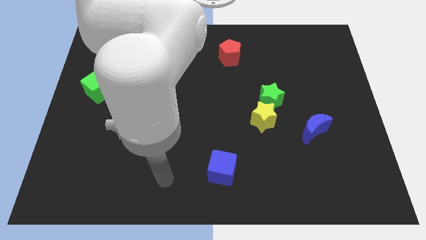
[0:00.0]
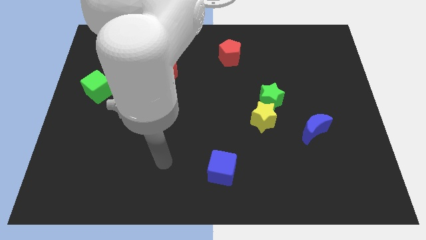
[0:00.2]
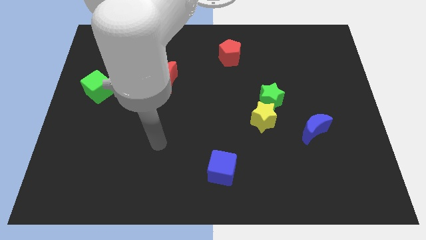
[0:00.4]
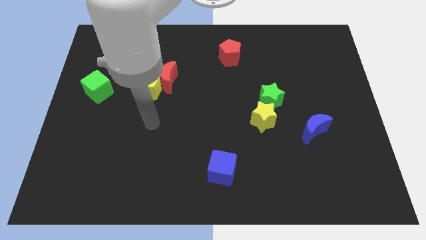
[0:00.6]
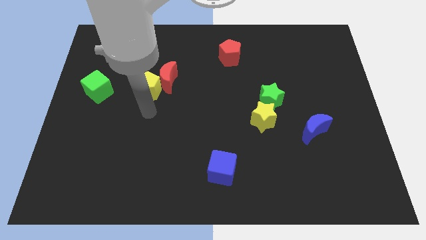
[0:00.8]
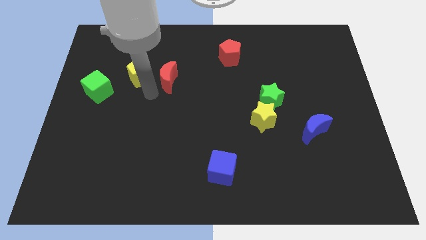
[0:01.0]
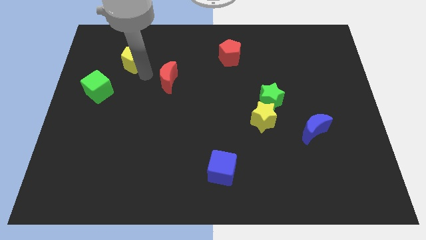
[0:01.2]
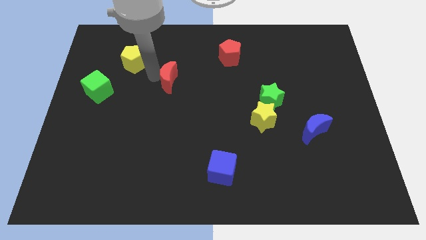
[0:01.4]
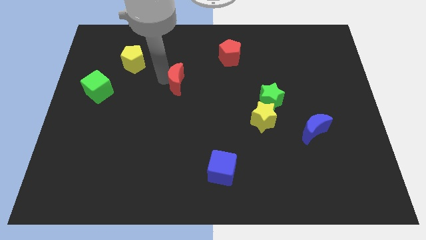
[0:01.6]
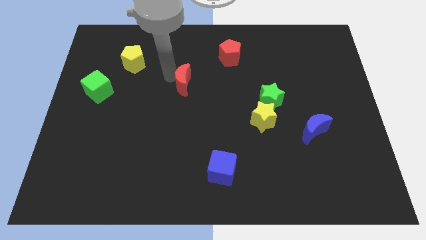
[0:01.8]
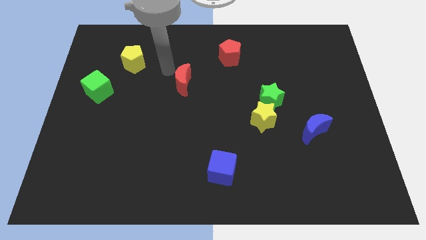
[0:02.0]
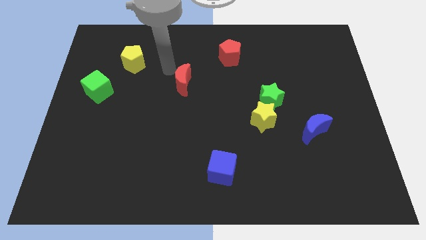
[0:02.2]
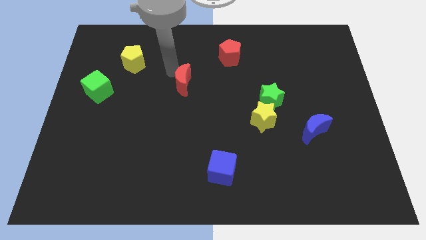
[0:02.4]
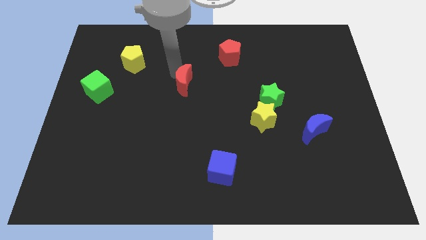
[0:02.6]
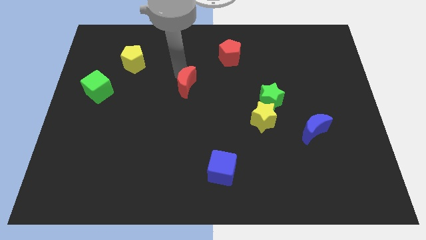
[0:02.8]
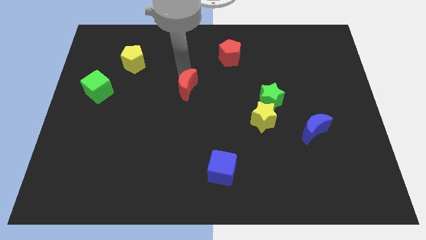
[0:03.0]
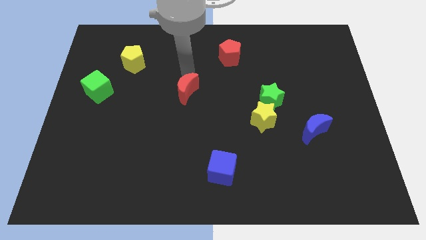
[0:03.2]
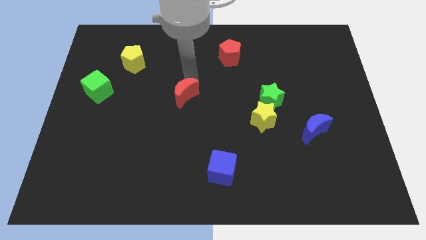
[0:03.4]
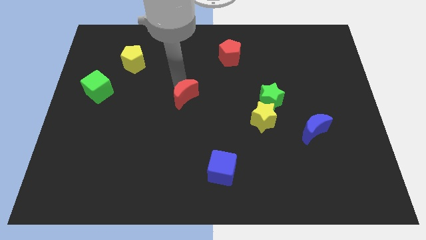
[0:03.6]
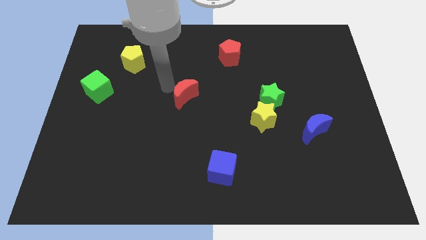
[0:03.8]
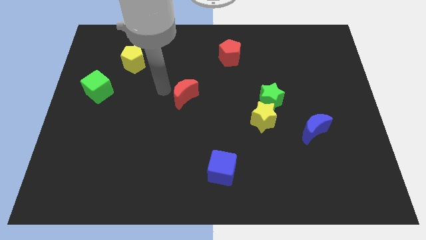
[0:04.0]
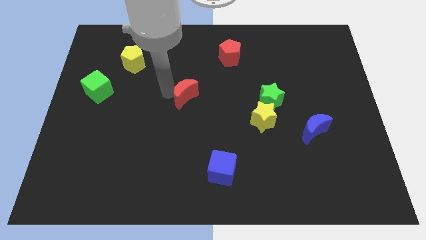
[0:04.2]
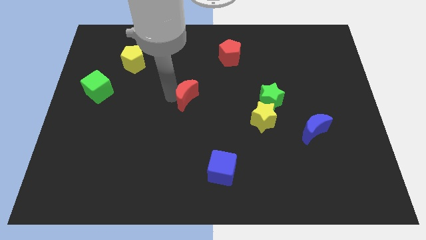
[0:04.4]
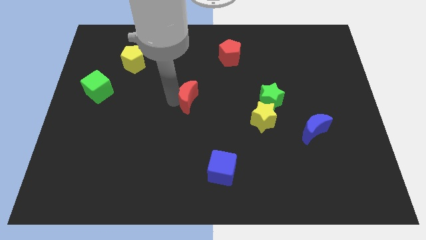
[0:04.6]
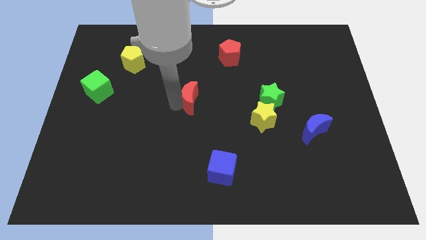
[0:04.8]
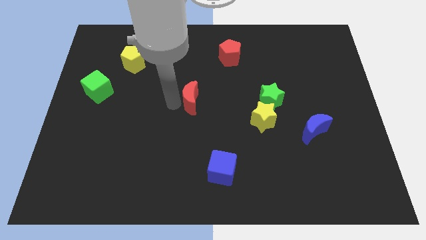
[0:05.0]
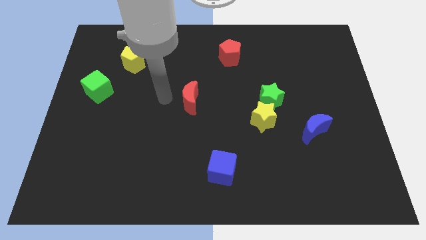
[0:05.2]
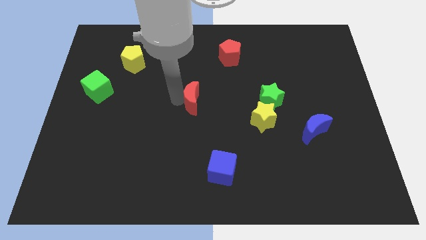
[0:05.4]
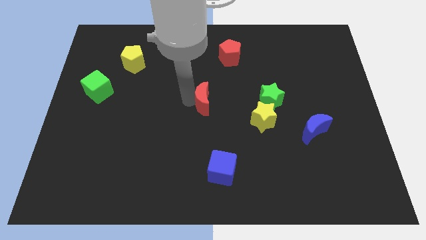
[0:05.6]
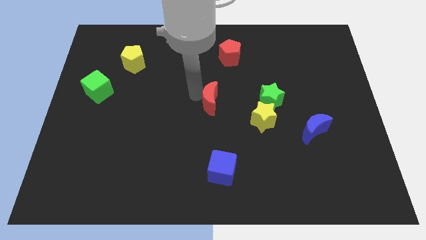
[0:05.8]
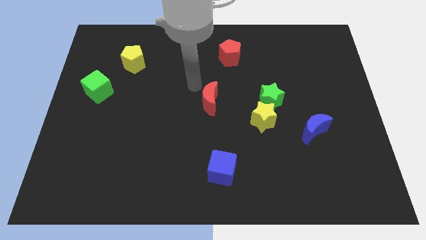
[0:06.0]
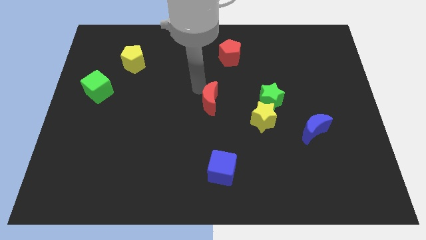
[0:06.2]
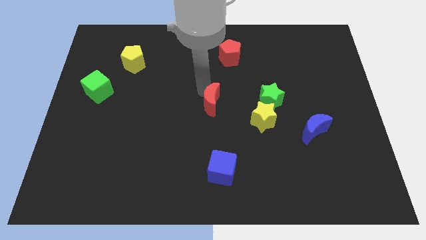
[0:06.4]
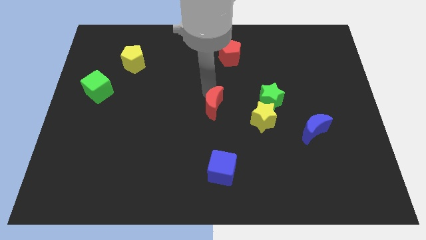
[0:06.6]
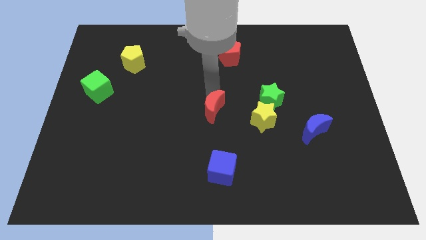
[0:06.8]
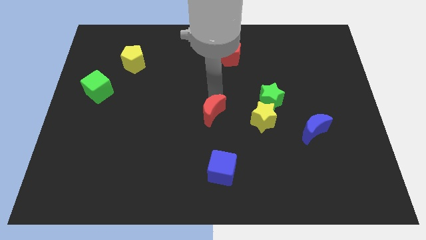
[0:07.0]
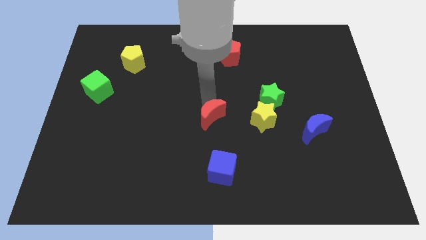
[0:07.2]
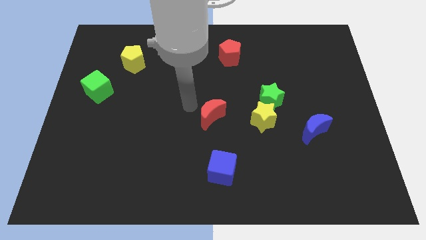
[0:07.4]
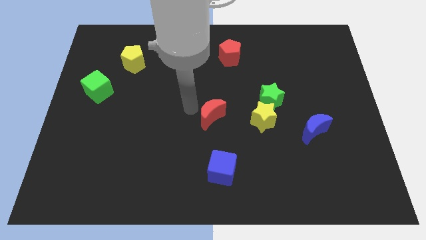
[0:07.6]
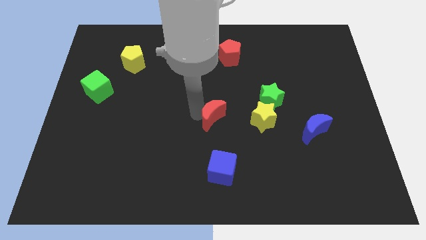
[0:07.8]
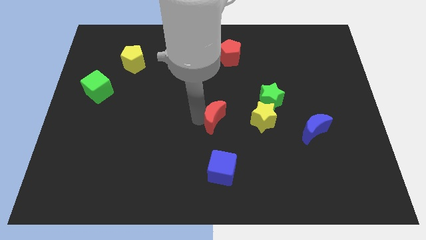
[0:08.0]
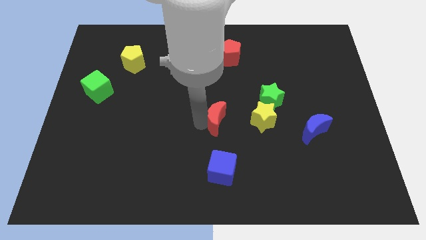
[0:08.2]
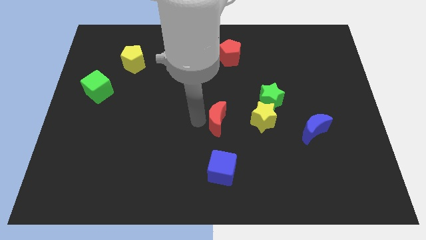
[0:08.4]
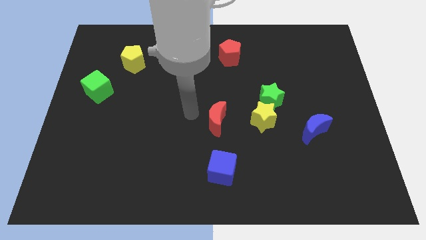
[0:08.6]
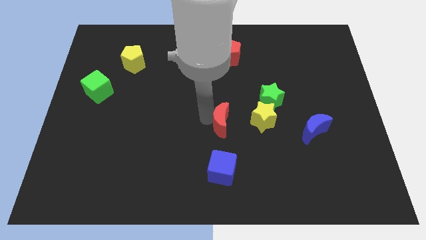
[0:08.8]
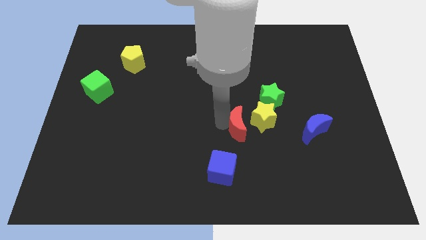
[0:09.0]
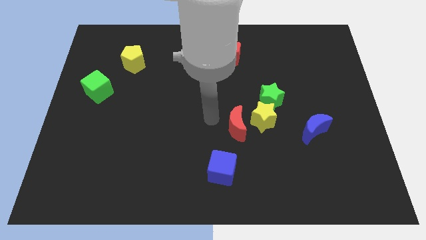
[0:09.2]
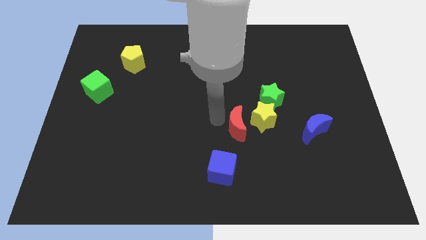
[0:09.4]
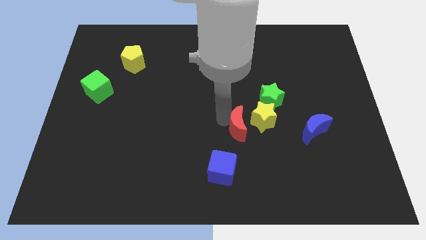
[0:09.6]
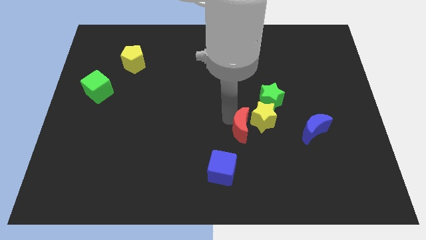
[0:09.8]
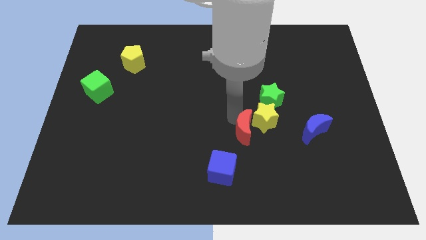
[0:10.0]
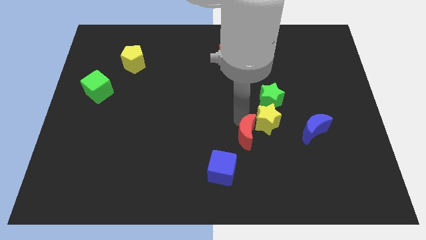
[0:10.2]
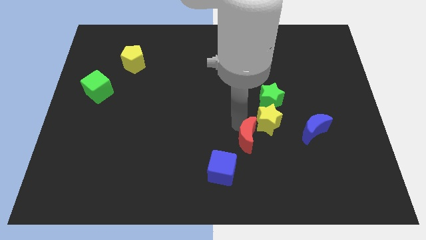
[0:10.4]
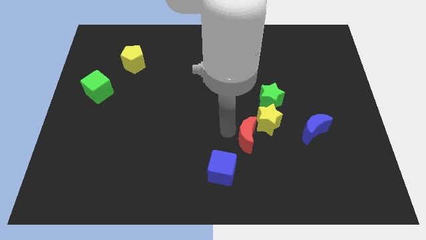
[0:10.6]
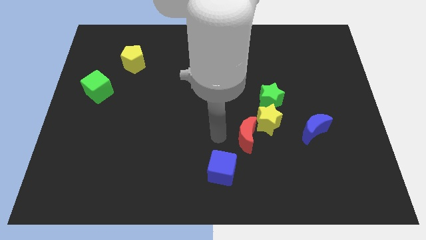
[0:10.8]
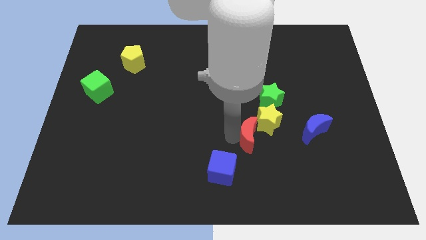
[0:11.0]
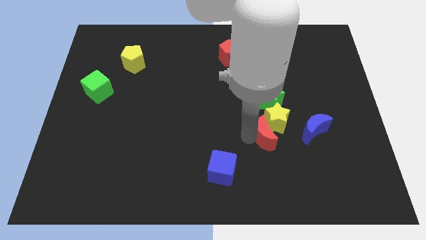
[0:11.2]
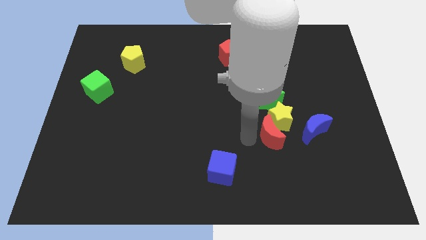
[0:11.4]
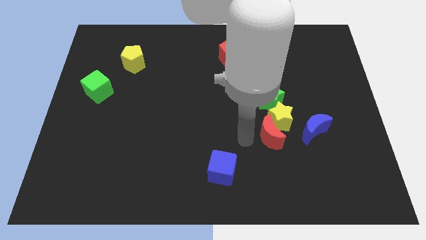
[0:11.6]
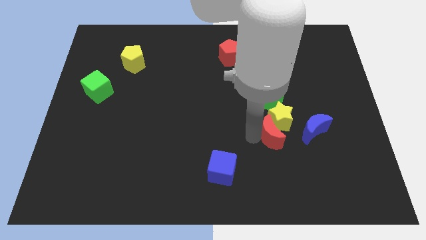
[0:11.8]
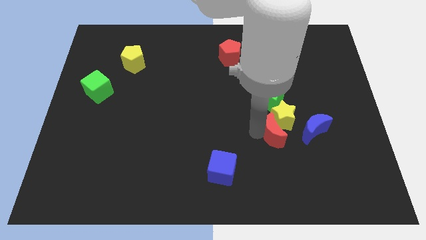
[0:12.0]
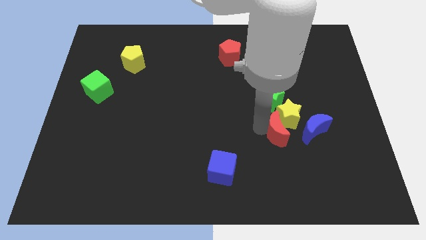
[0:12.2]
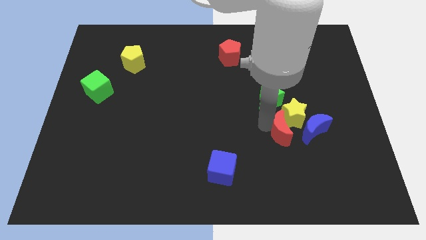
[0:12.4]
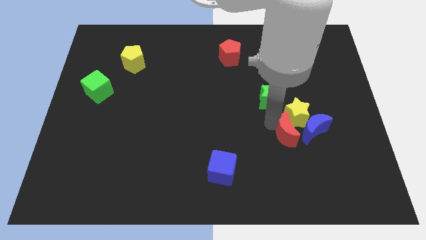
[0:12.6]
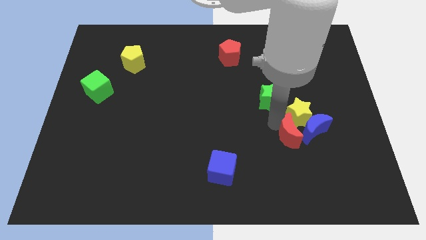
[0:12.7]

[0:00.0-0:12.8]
push the red moon next to the blue moon
